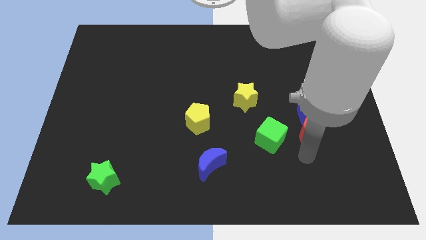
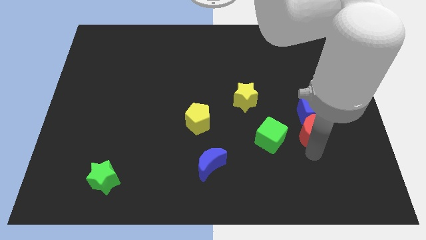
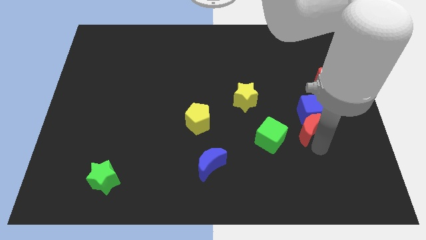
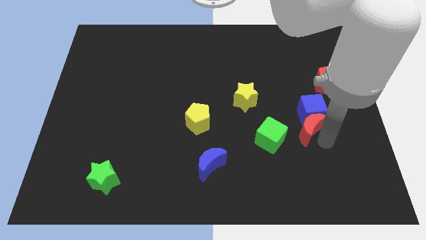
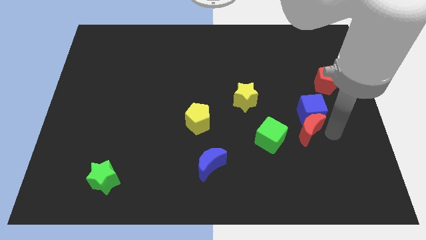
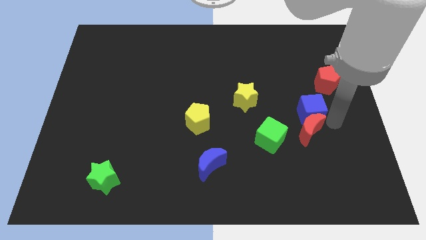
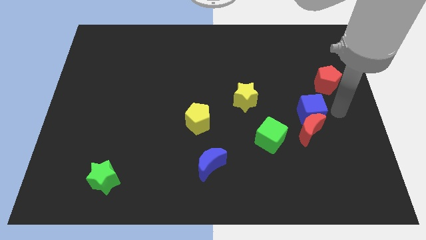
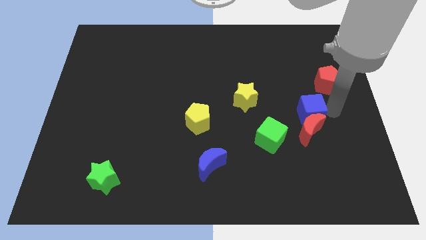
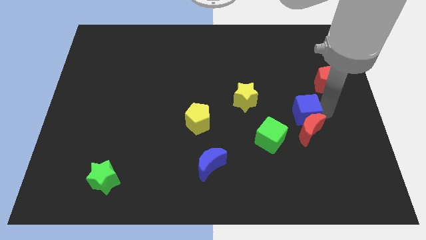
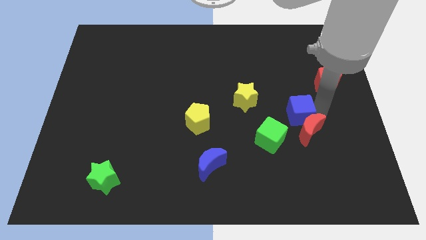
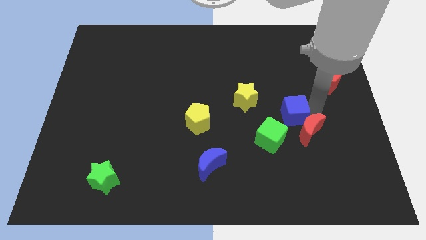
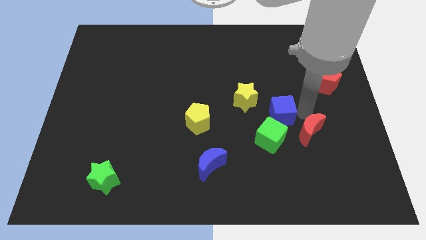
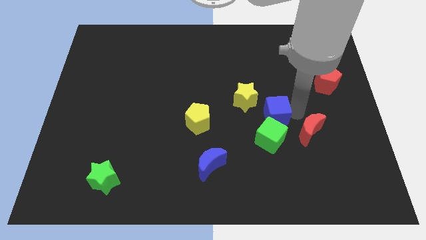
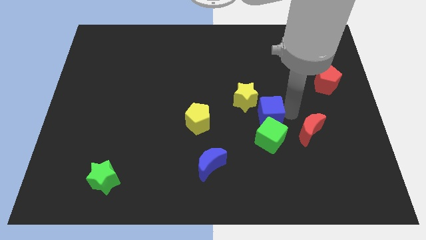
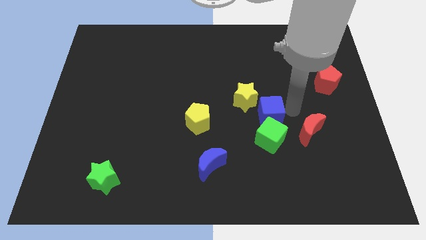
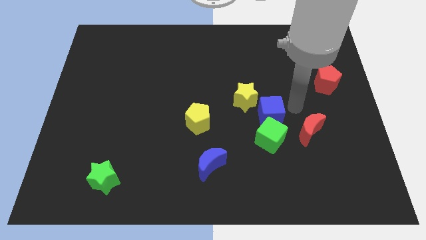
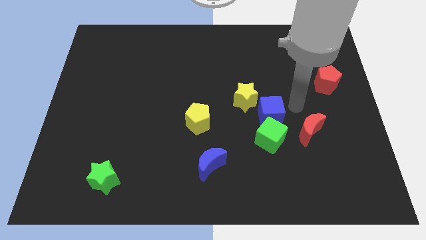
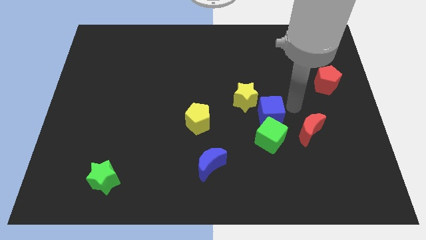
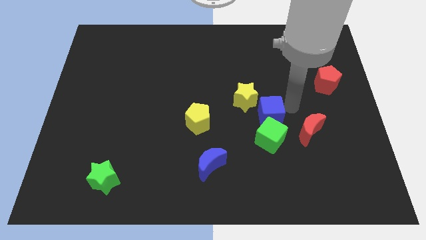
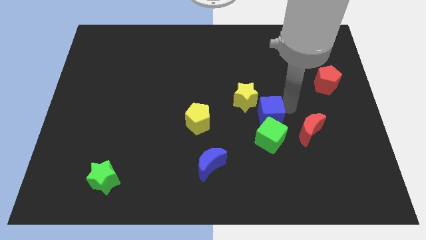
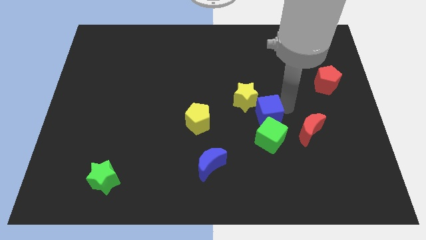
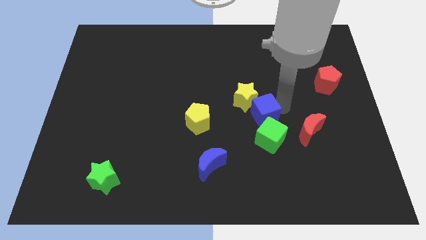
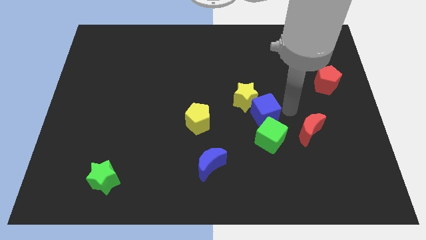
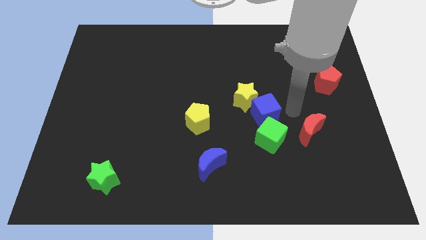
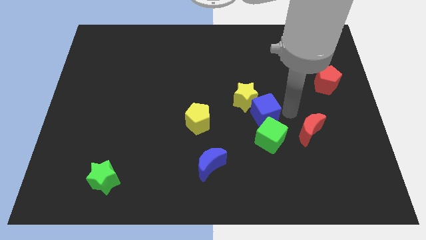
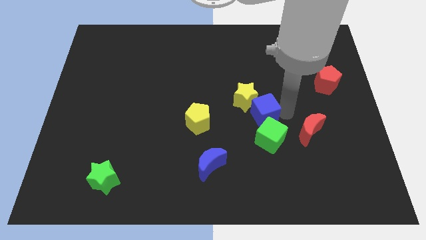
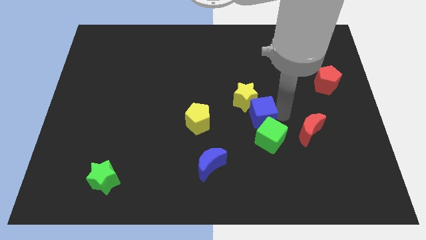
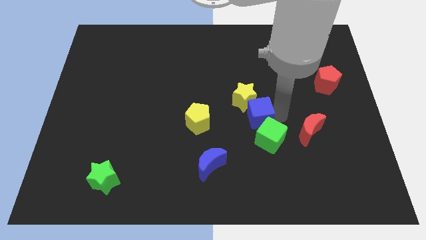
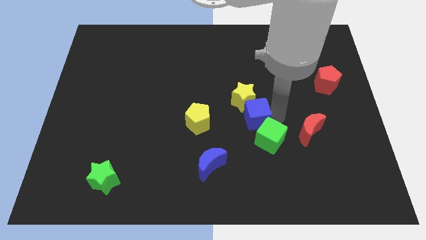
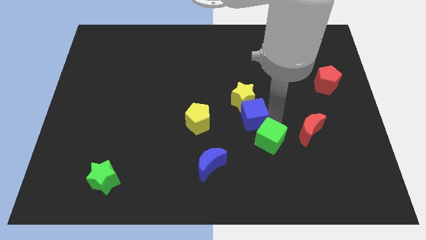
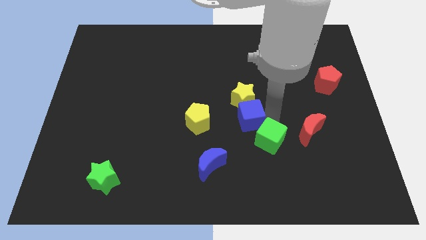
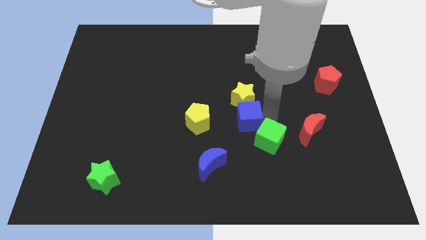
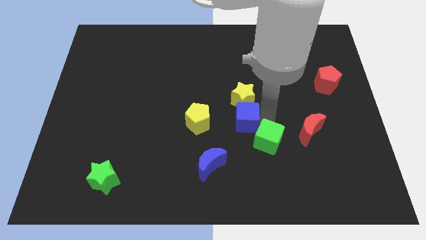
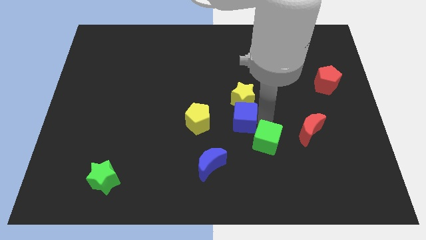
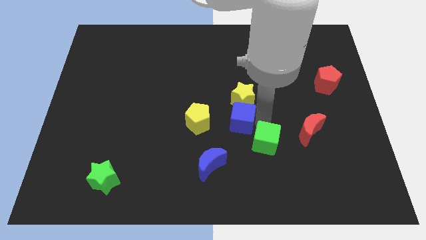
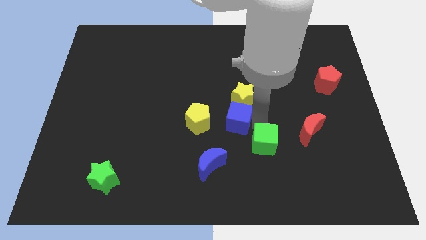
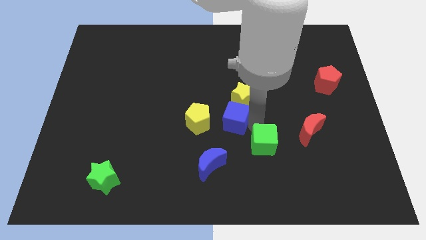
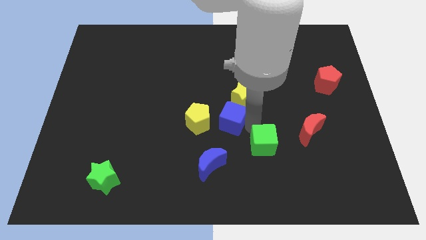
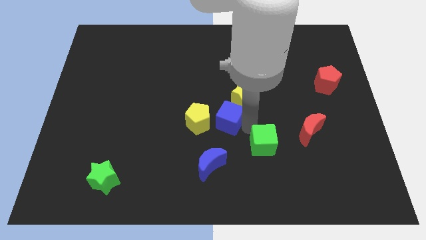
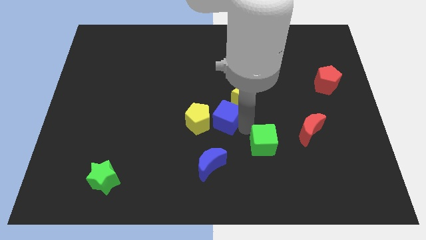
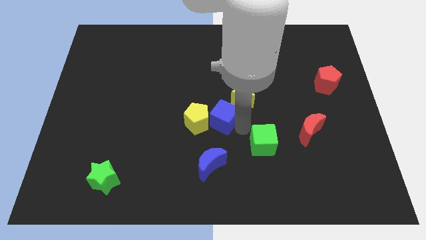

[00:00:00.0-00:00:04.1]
slide the blue cube to the left

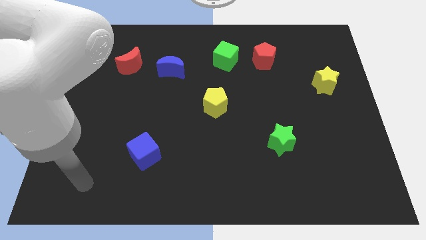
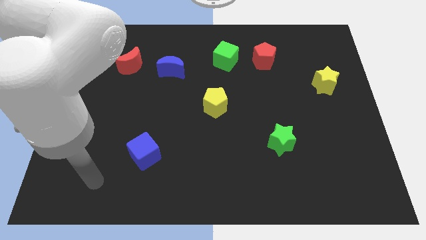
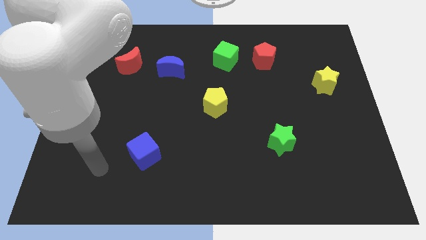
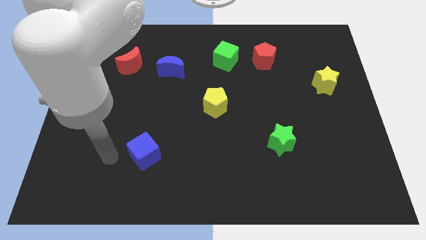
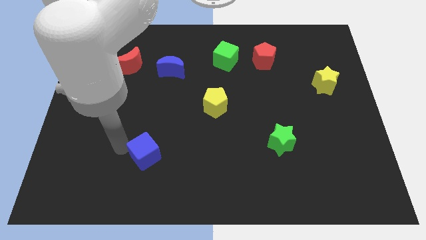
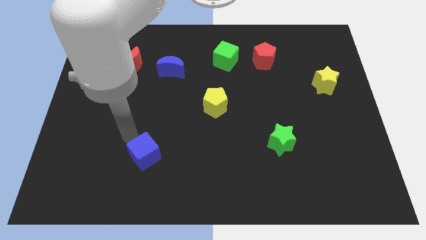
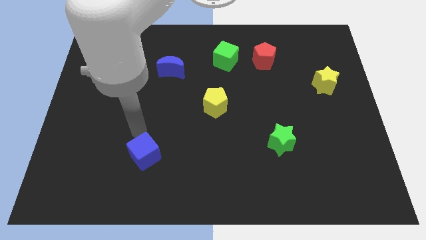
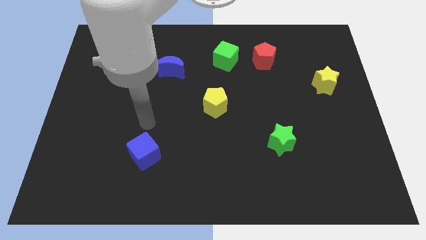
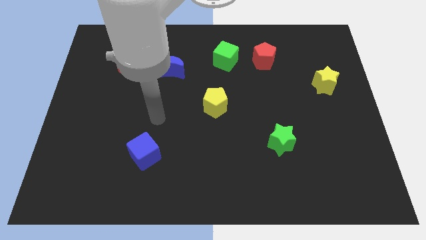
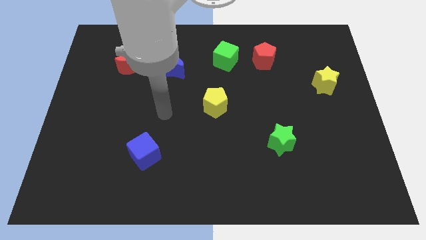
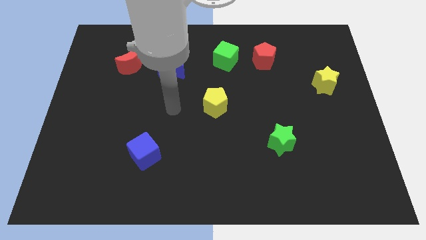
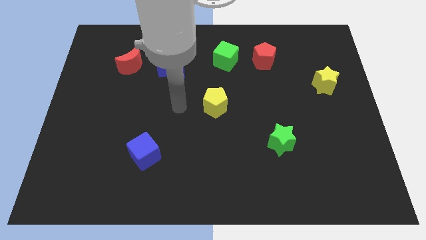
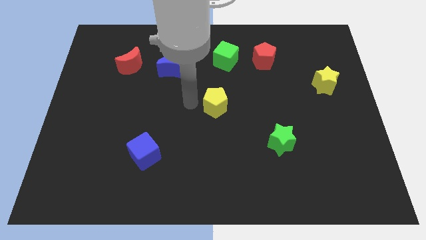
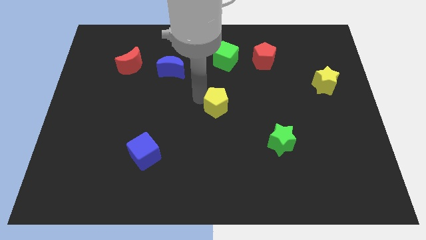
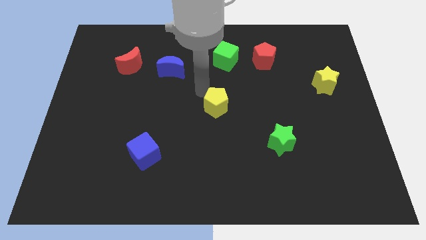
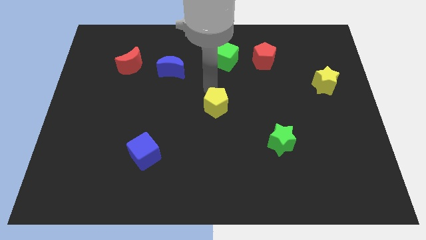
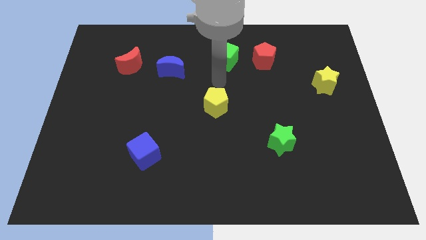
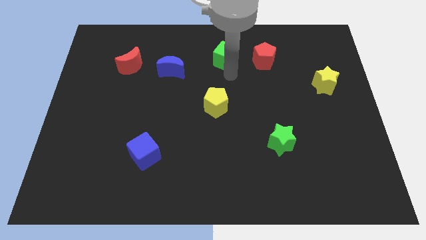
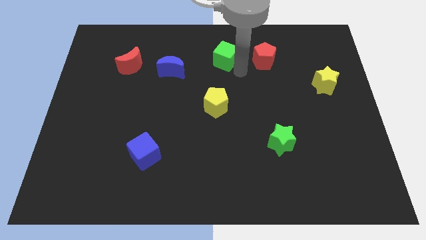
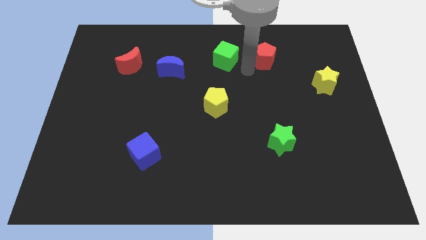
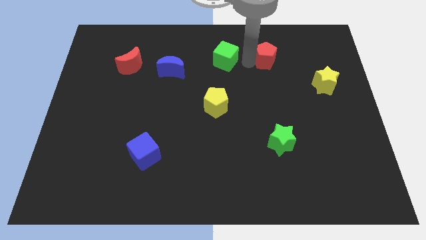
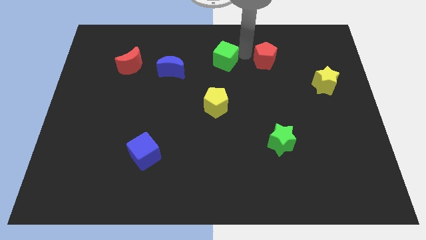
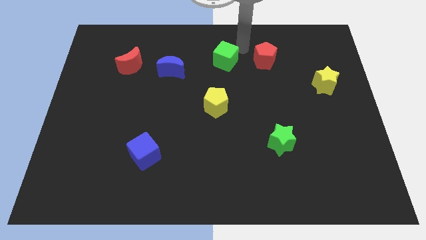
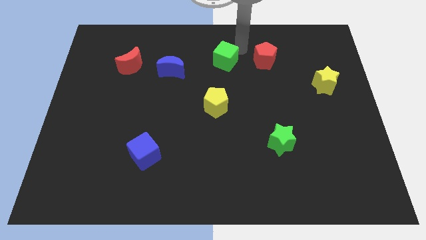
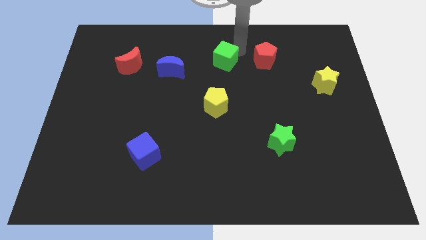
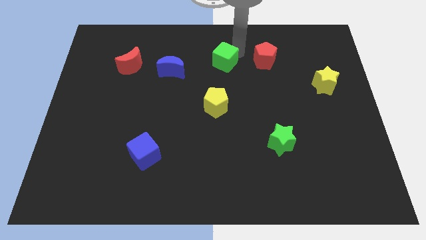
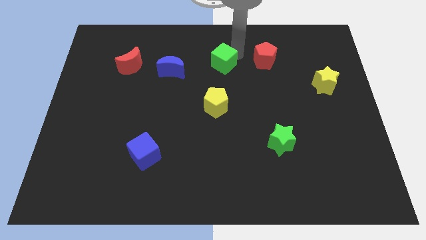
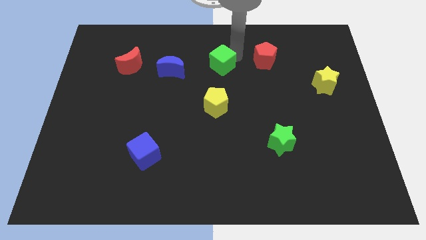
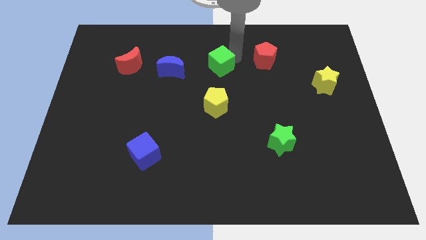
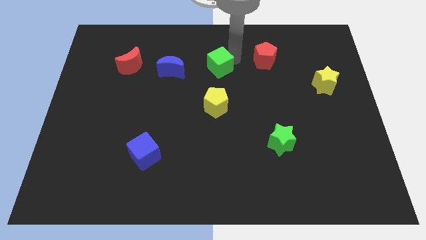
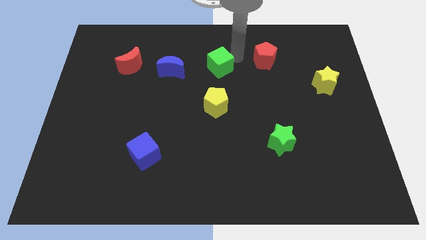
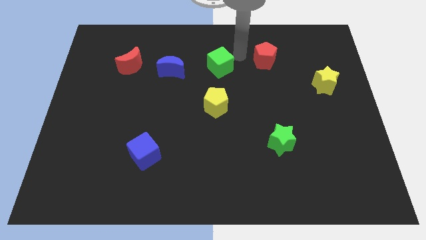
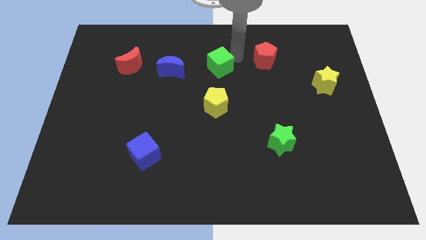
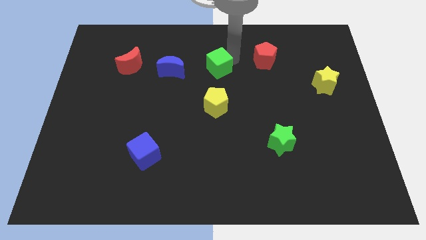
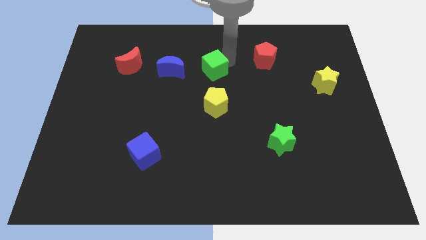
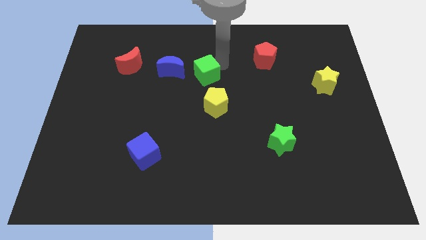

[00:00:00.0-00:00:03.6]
move the green cube somewhat downwards and to the left diagonally

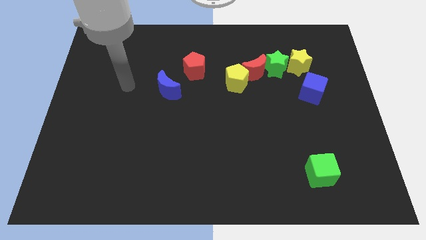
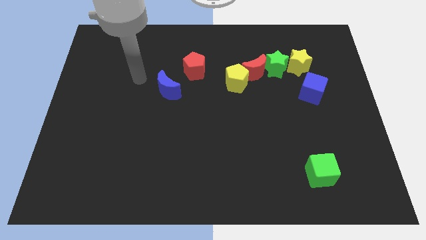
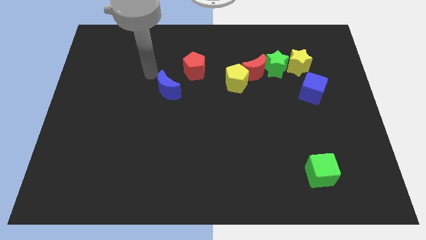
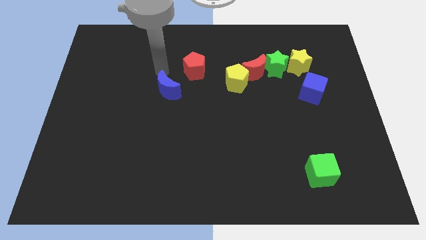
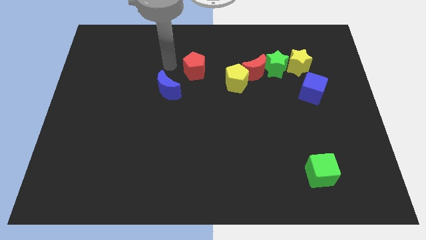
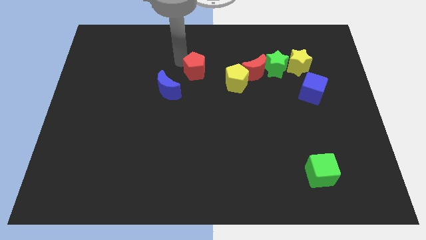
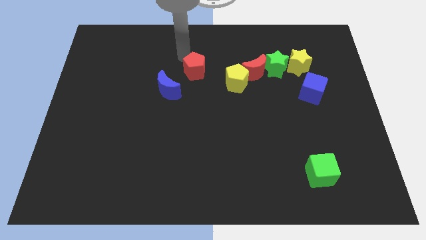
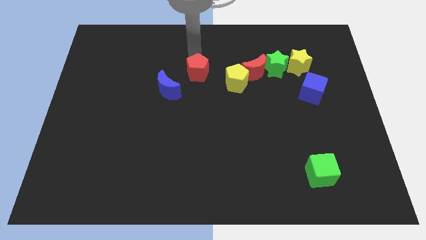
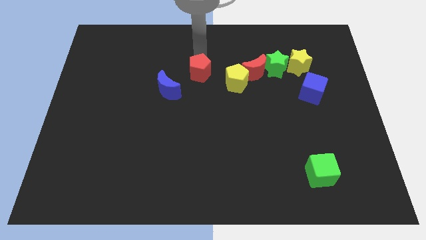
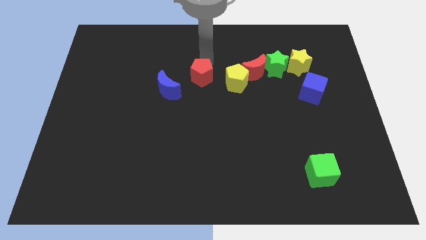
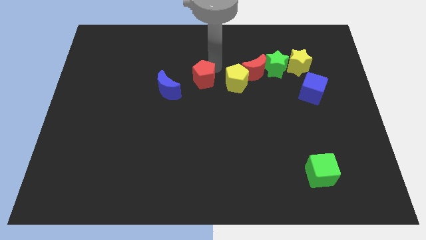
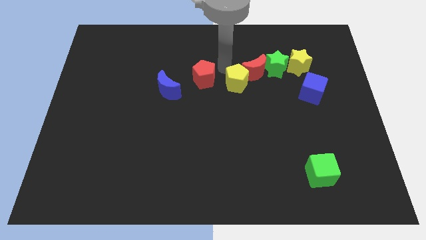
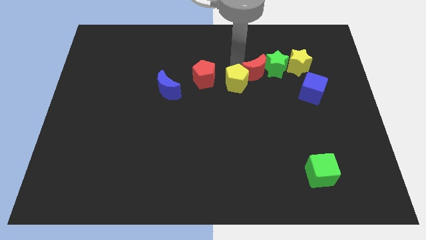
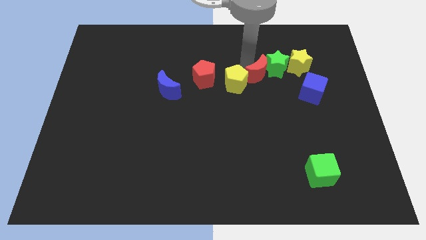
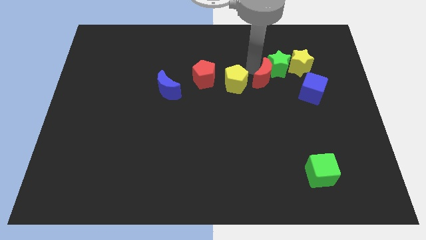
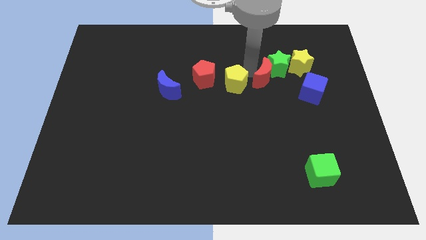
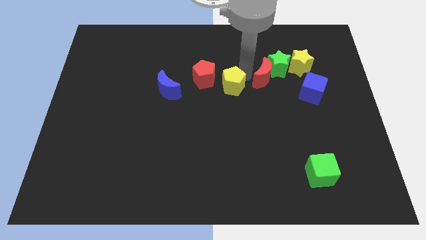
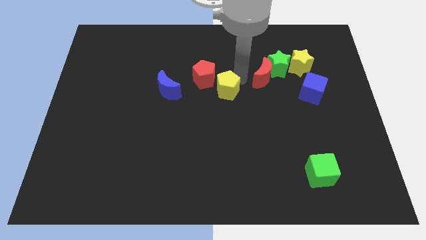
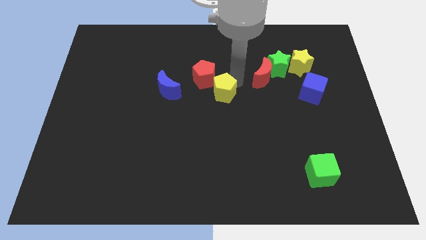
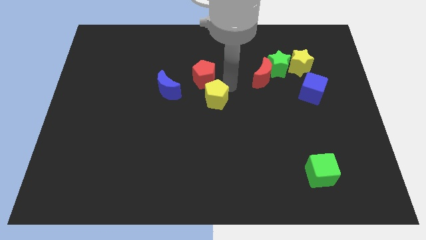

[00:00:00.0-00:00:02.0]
push the yellow pentagon downwards and to the left diagonally somewhat
